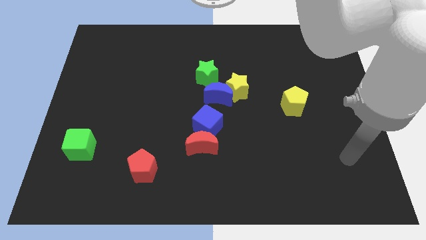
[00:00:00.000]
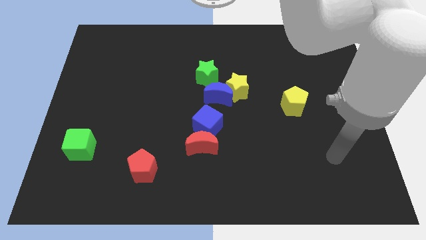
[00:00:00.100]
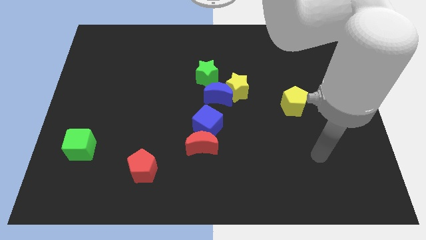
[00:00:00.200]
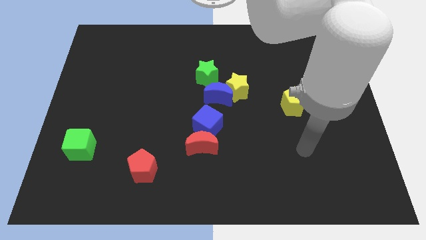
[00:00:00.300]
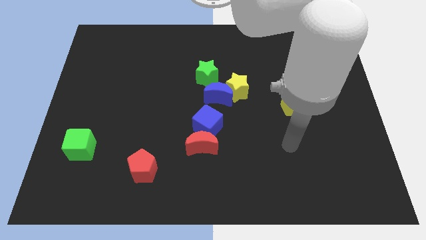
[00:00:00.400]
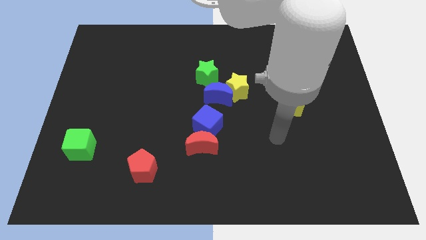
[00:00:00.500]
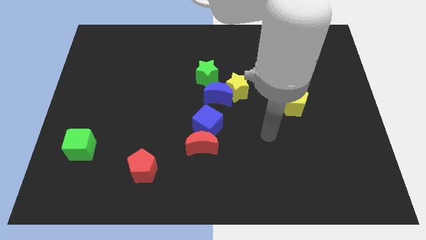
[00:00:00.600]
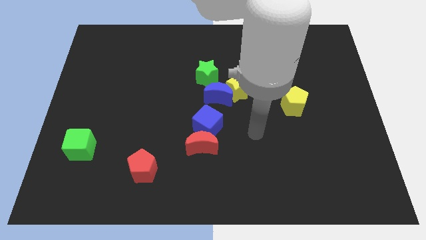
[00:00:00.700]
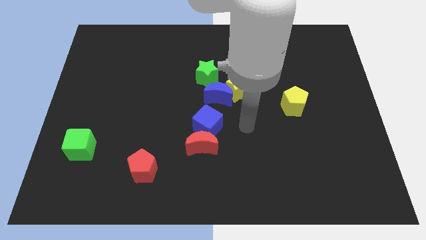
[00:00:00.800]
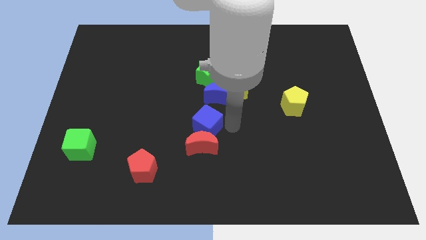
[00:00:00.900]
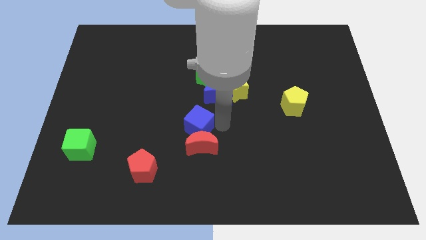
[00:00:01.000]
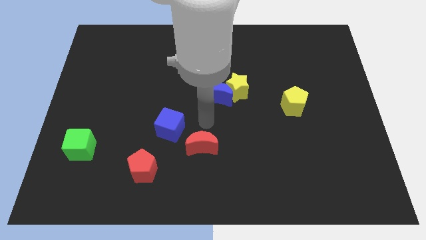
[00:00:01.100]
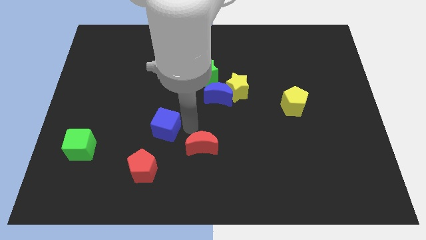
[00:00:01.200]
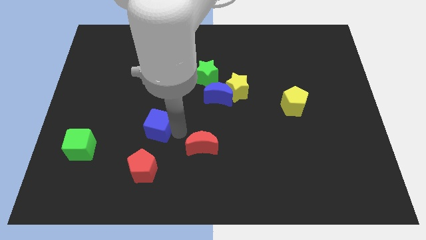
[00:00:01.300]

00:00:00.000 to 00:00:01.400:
move the red moon away from the blue cube

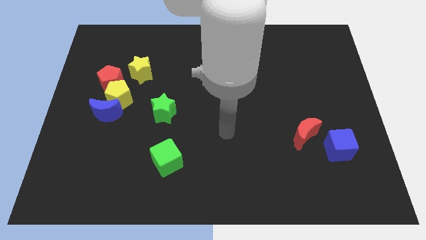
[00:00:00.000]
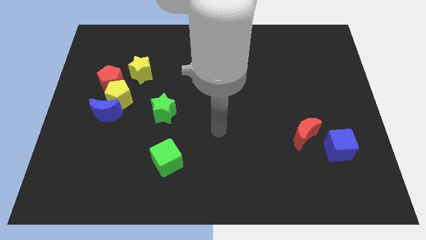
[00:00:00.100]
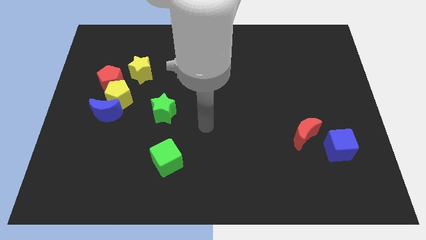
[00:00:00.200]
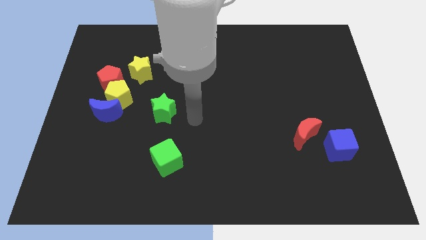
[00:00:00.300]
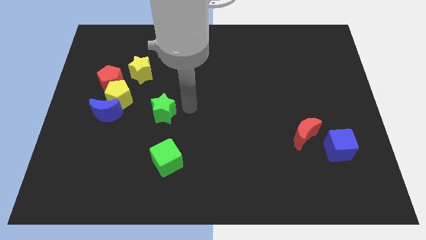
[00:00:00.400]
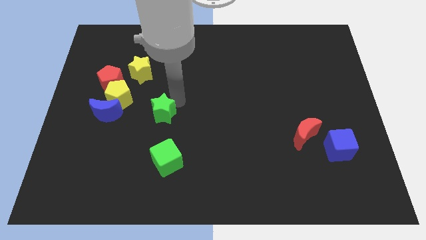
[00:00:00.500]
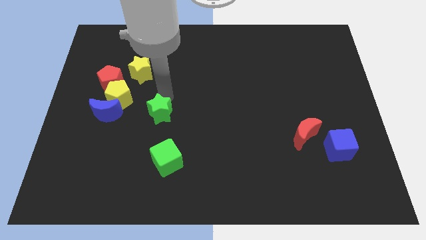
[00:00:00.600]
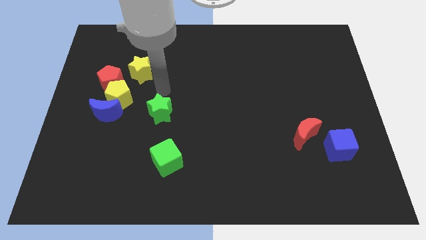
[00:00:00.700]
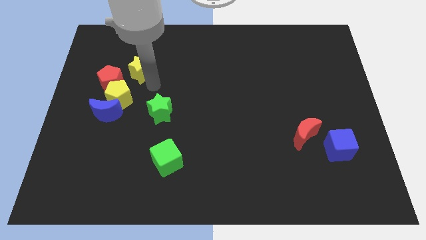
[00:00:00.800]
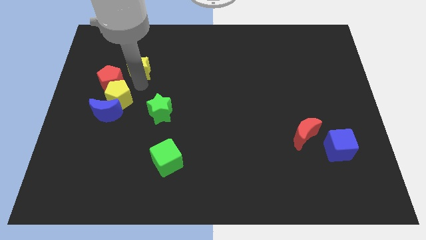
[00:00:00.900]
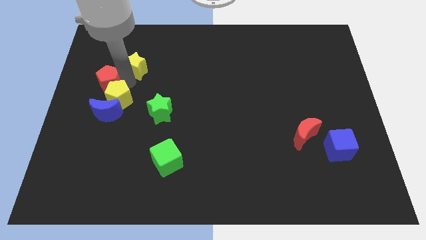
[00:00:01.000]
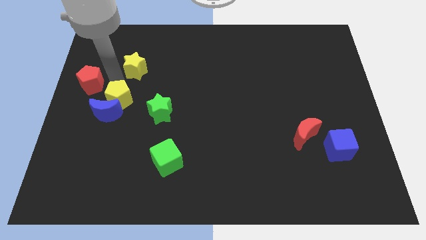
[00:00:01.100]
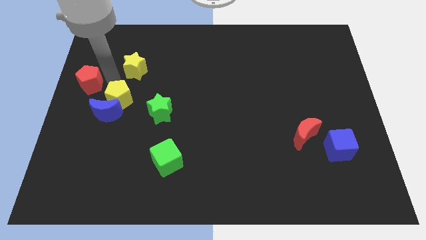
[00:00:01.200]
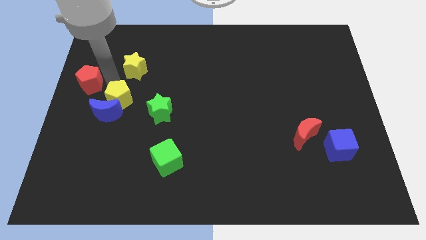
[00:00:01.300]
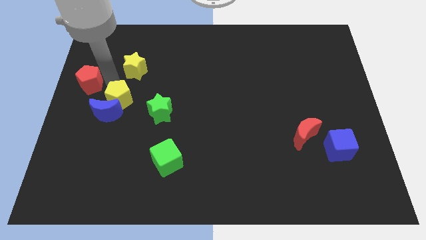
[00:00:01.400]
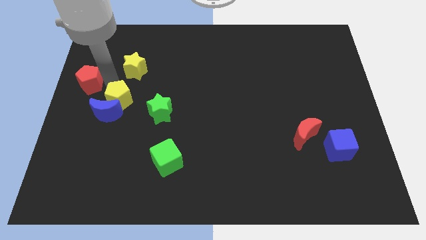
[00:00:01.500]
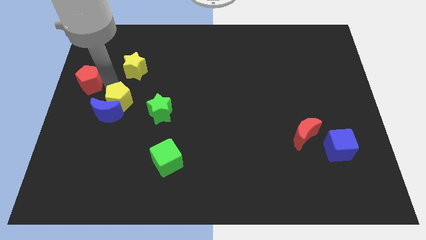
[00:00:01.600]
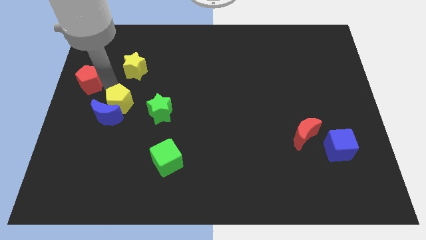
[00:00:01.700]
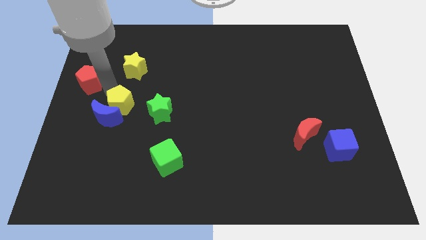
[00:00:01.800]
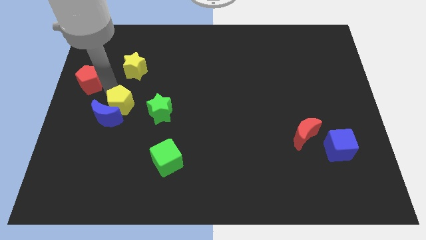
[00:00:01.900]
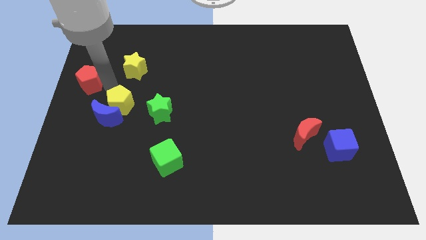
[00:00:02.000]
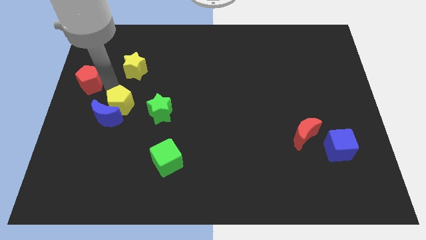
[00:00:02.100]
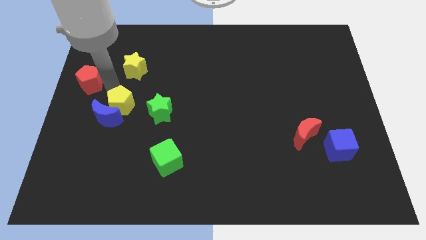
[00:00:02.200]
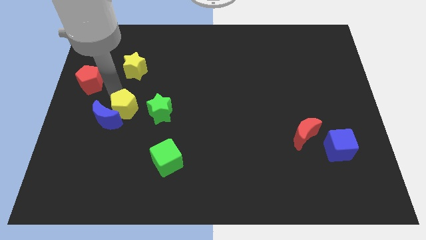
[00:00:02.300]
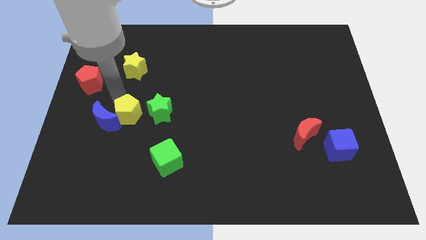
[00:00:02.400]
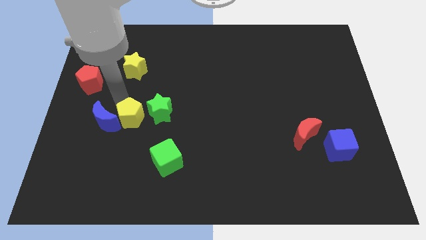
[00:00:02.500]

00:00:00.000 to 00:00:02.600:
pull the yellow pentagon apart from the blue moon, red pentagon, and yellow star

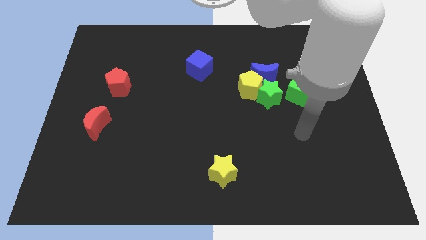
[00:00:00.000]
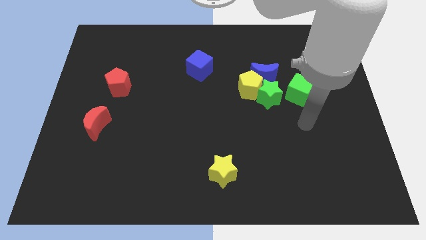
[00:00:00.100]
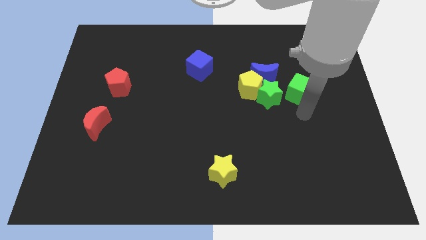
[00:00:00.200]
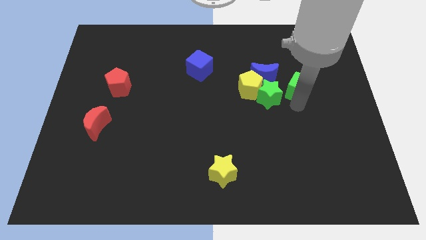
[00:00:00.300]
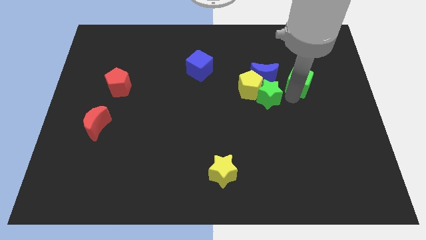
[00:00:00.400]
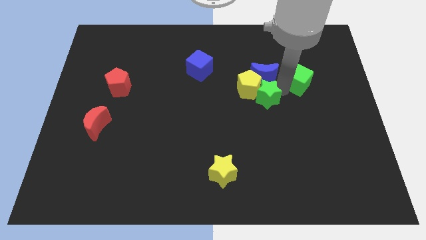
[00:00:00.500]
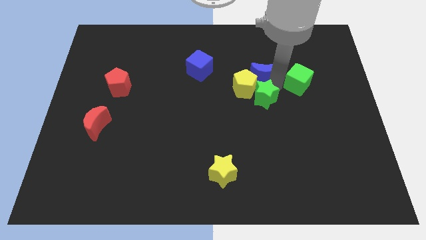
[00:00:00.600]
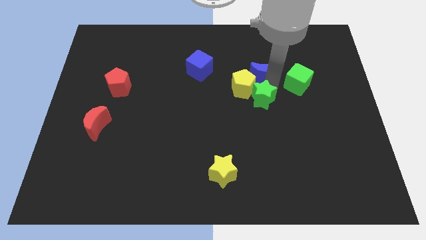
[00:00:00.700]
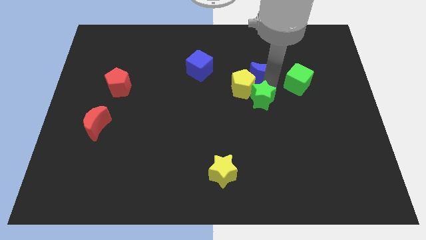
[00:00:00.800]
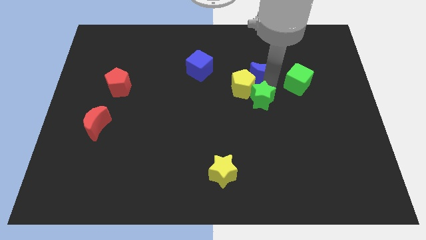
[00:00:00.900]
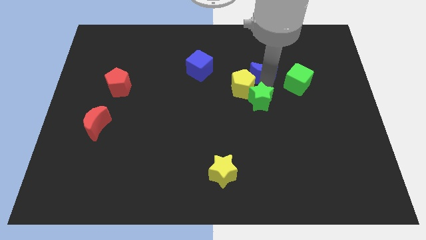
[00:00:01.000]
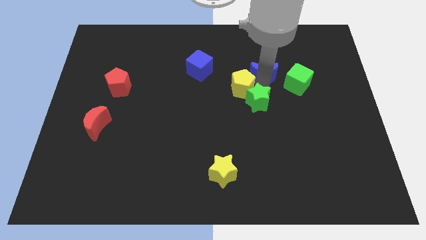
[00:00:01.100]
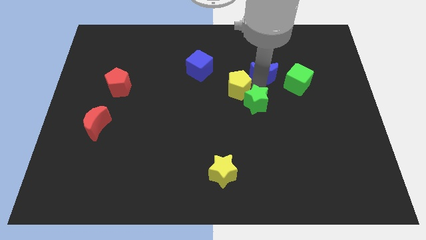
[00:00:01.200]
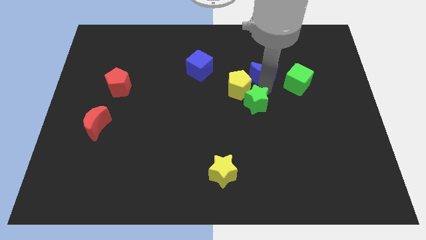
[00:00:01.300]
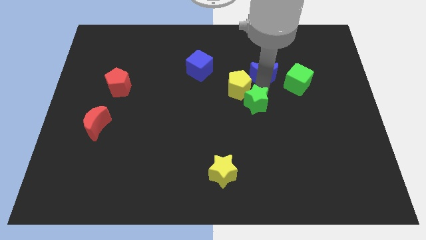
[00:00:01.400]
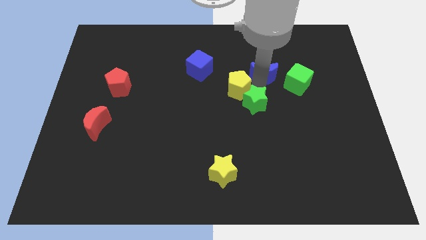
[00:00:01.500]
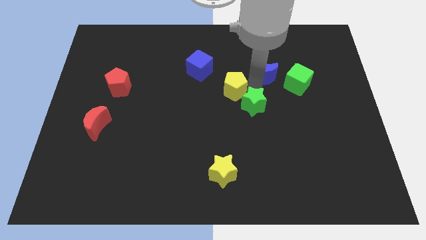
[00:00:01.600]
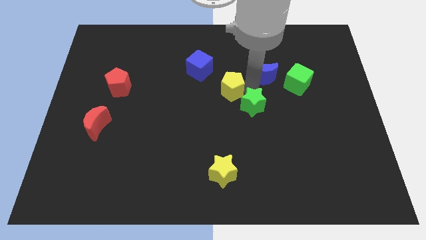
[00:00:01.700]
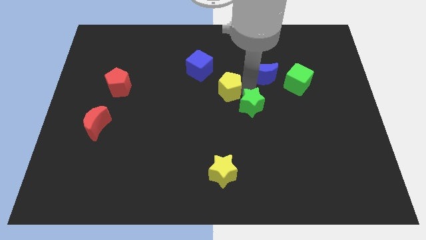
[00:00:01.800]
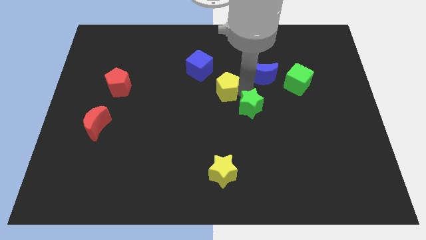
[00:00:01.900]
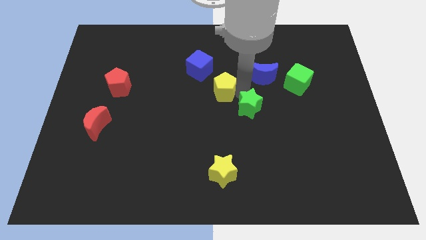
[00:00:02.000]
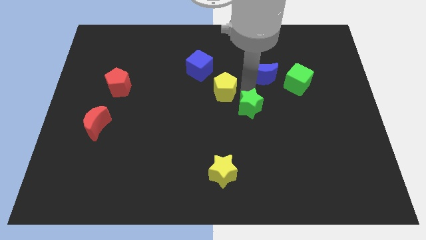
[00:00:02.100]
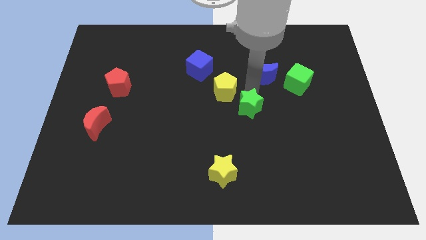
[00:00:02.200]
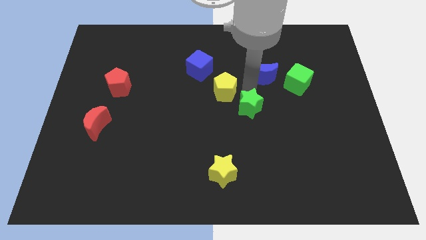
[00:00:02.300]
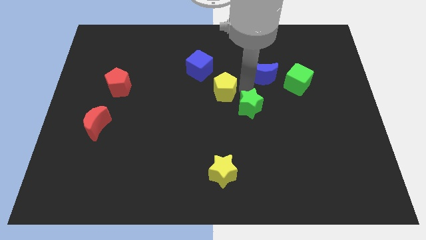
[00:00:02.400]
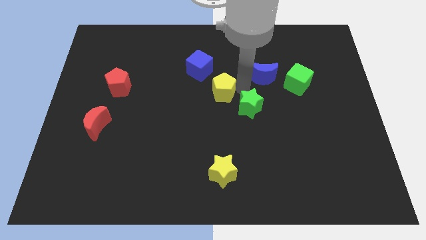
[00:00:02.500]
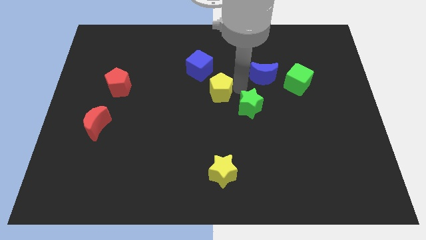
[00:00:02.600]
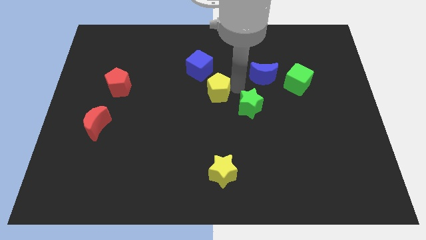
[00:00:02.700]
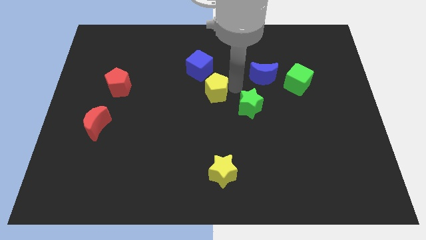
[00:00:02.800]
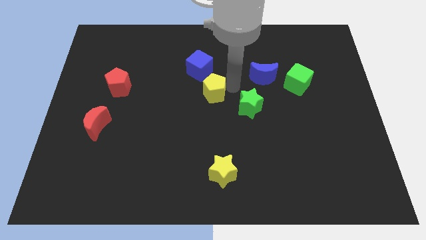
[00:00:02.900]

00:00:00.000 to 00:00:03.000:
pull the yellow pentagon apart from the blue moon and green star

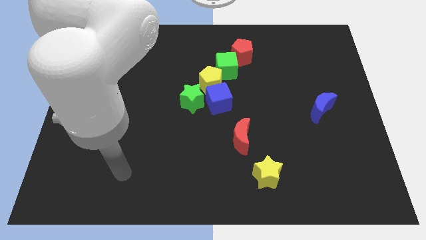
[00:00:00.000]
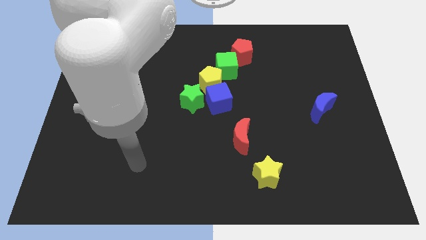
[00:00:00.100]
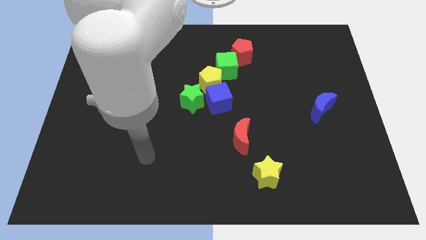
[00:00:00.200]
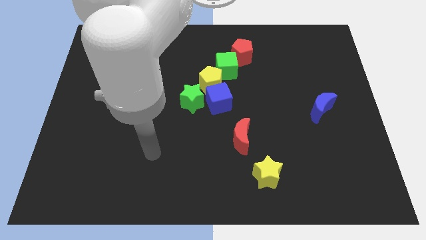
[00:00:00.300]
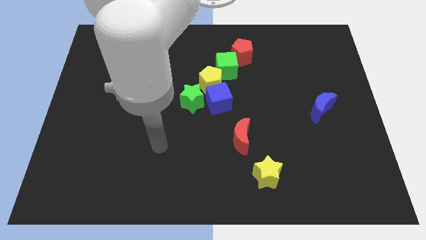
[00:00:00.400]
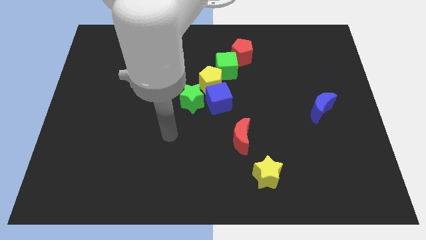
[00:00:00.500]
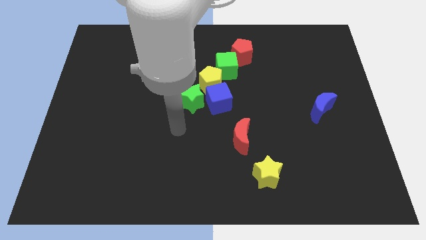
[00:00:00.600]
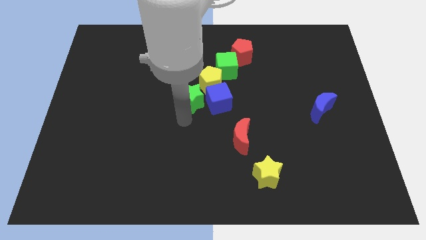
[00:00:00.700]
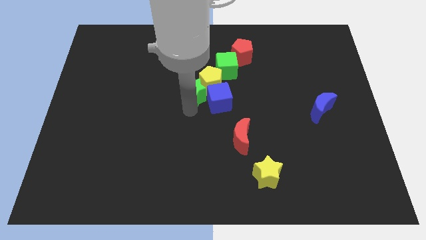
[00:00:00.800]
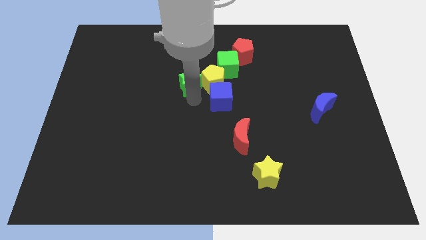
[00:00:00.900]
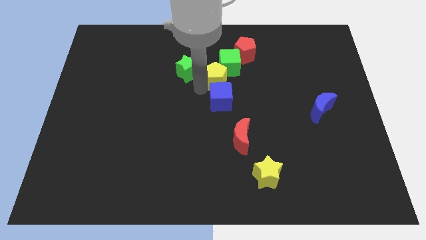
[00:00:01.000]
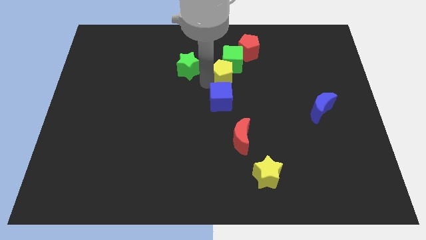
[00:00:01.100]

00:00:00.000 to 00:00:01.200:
separate the blue cube from the green star and yellow pentagon

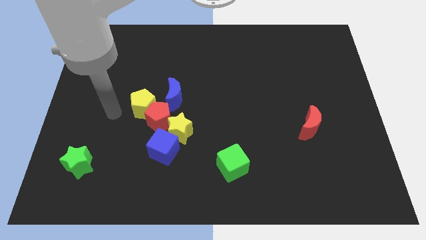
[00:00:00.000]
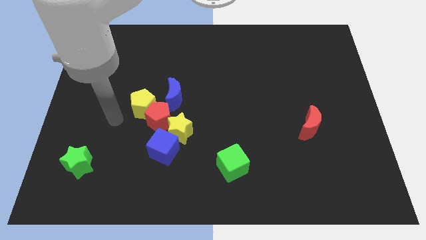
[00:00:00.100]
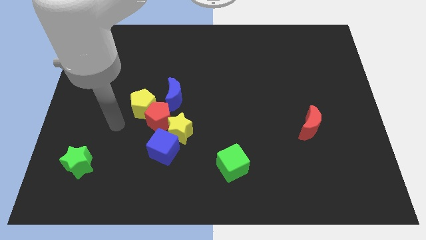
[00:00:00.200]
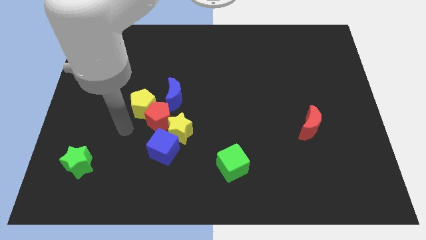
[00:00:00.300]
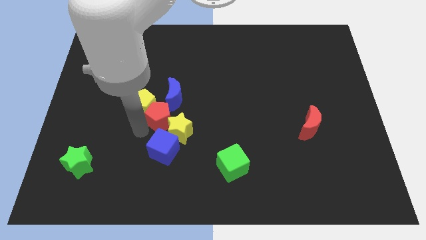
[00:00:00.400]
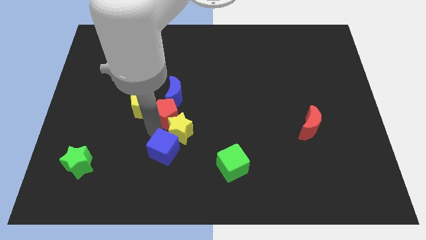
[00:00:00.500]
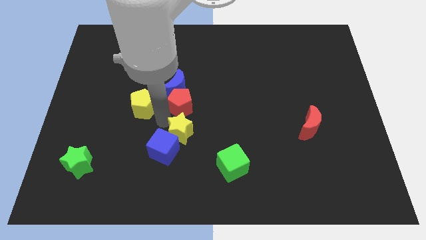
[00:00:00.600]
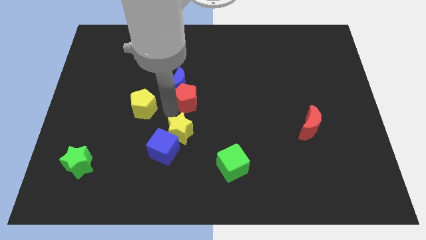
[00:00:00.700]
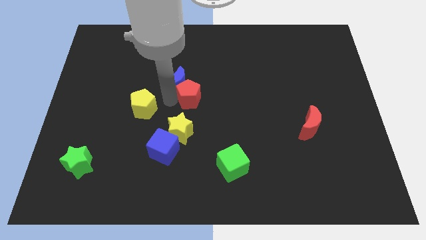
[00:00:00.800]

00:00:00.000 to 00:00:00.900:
separate the yellow pentagon from the red pentagon and blue moon
